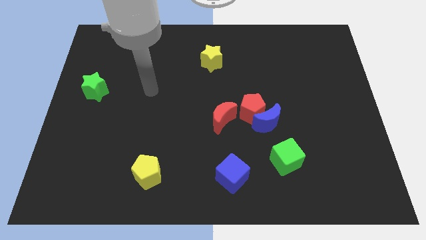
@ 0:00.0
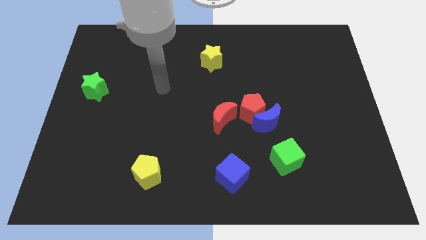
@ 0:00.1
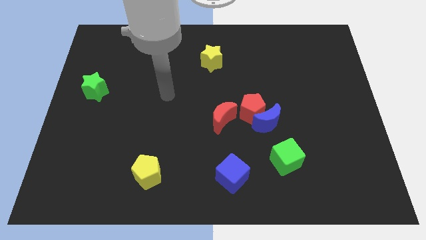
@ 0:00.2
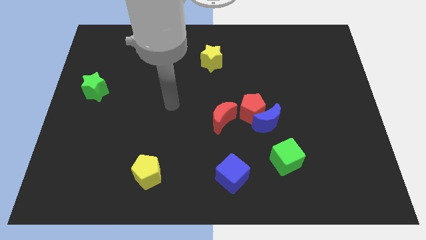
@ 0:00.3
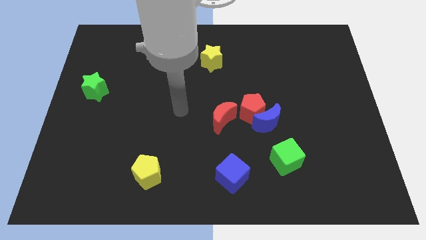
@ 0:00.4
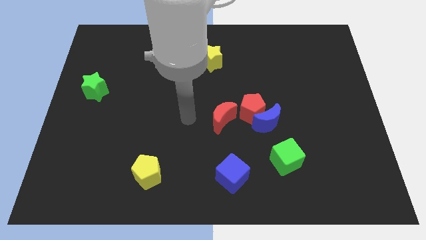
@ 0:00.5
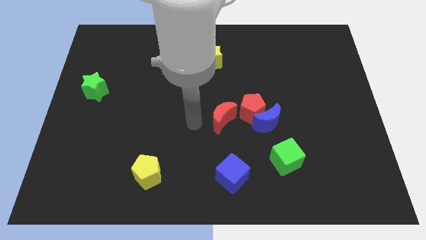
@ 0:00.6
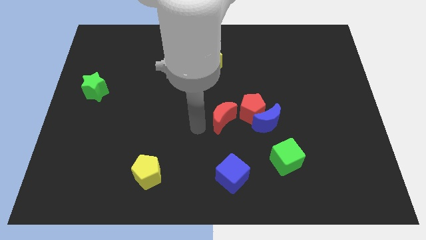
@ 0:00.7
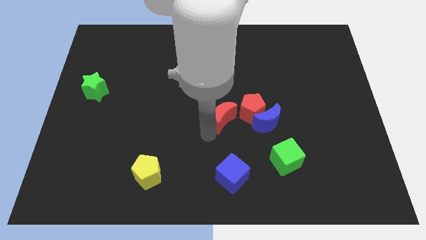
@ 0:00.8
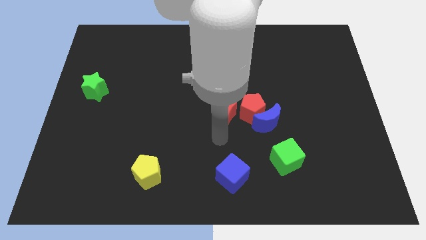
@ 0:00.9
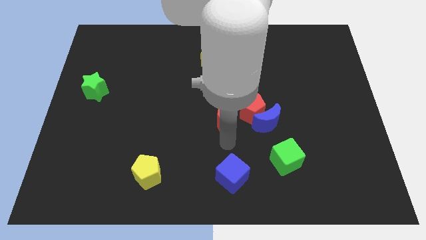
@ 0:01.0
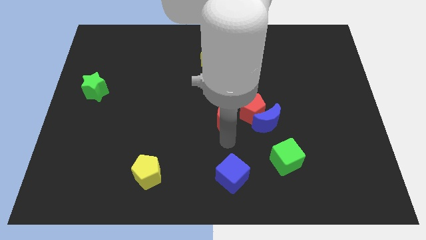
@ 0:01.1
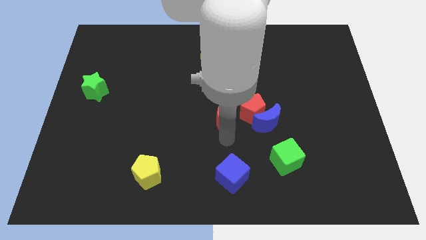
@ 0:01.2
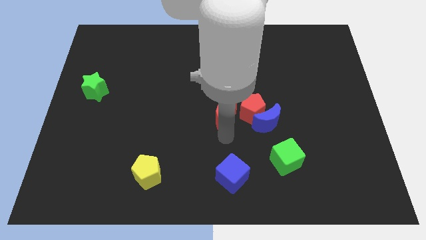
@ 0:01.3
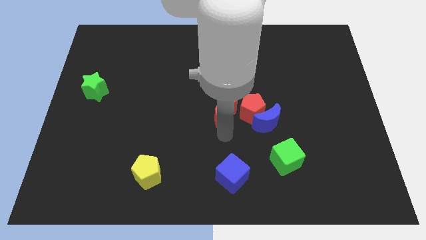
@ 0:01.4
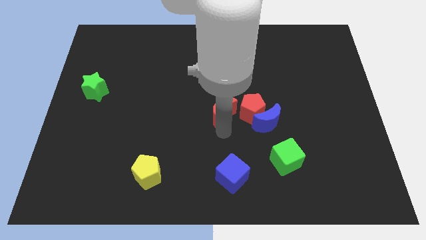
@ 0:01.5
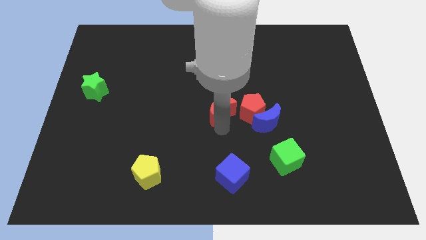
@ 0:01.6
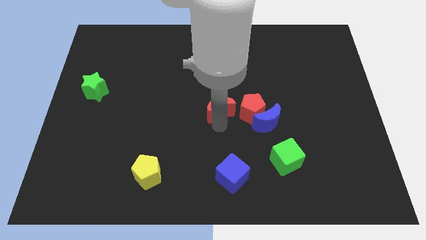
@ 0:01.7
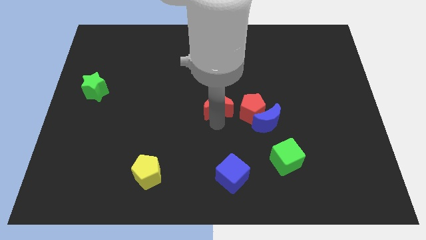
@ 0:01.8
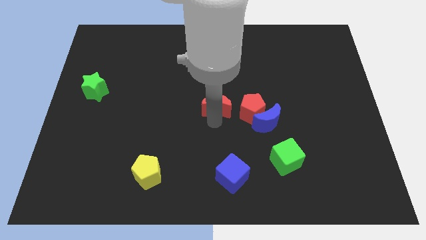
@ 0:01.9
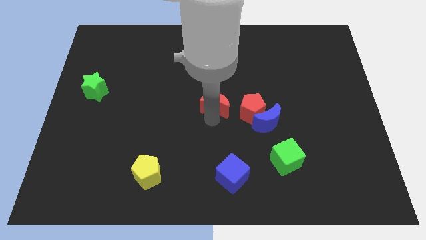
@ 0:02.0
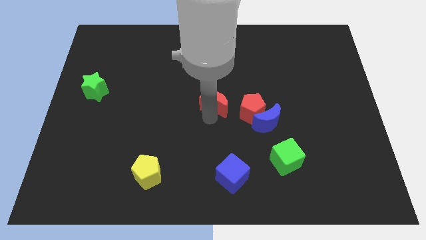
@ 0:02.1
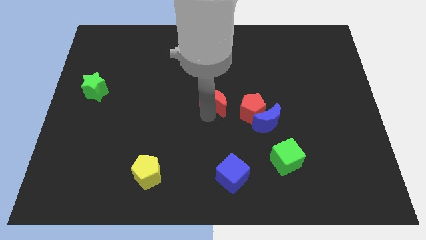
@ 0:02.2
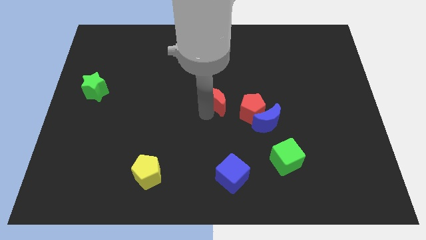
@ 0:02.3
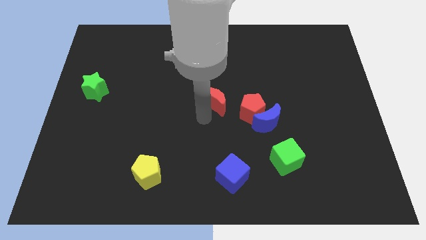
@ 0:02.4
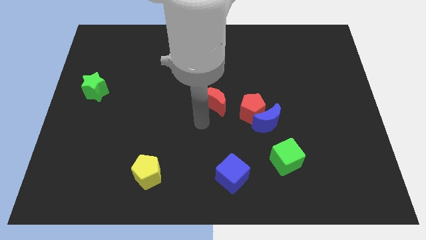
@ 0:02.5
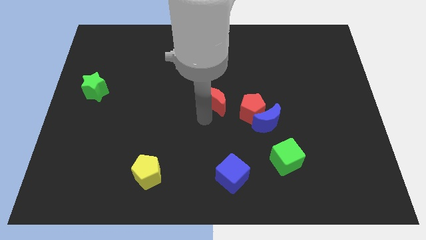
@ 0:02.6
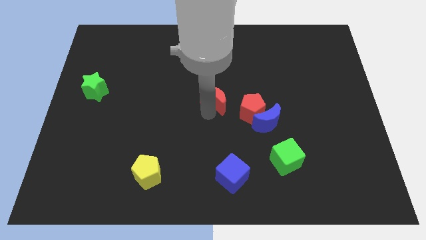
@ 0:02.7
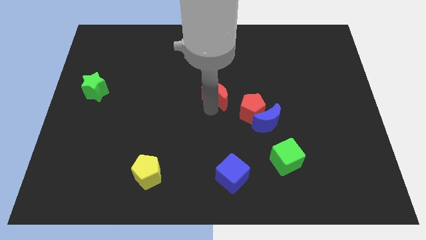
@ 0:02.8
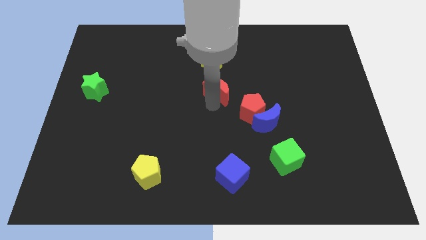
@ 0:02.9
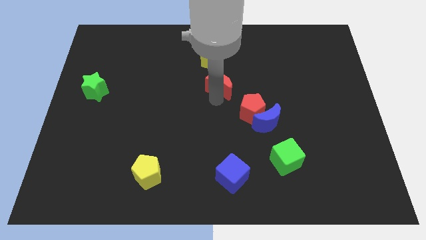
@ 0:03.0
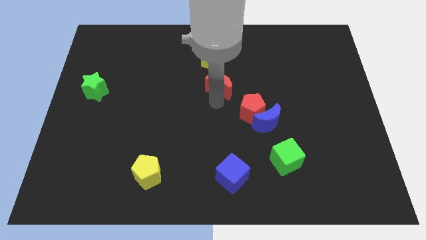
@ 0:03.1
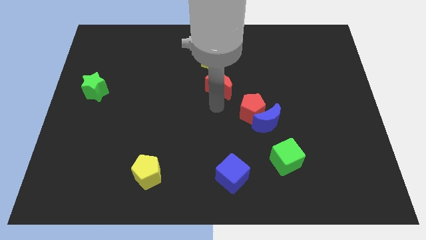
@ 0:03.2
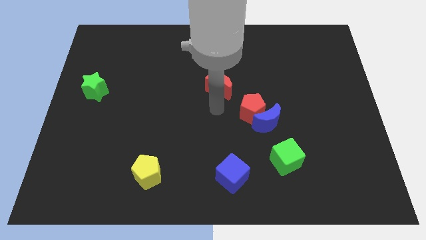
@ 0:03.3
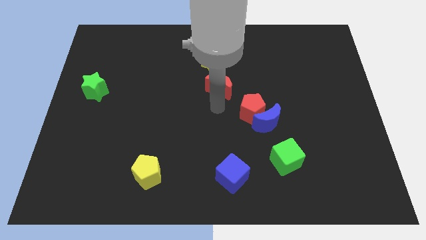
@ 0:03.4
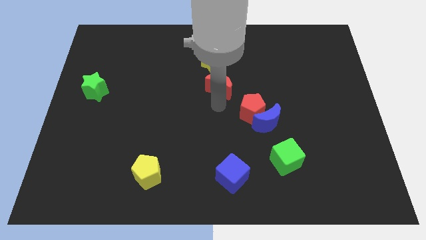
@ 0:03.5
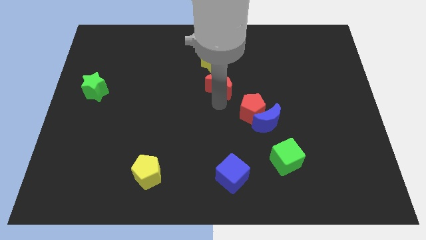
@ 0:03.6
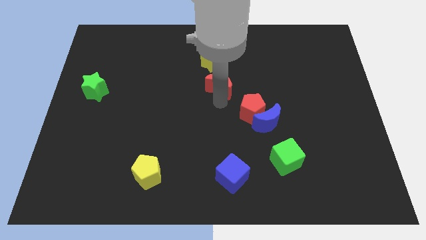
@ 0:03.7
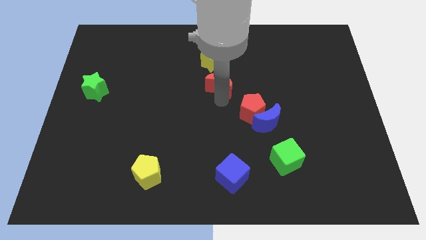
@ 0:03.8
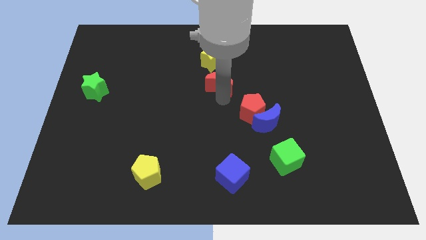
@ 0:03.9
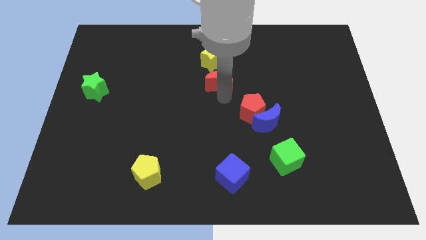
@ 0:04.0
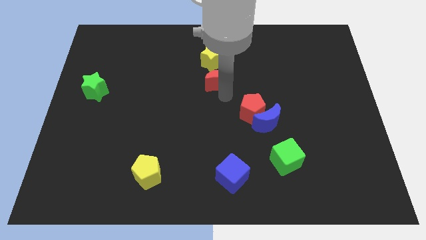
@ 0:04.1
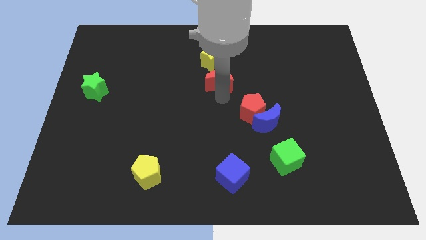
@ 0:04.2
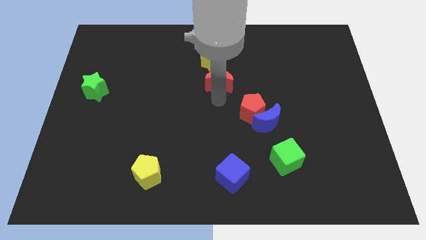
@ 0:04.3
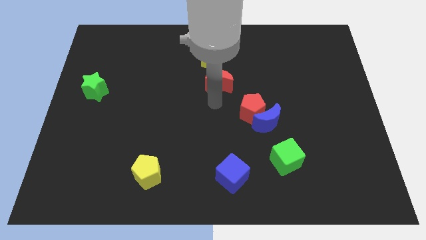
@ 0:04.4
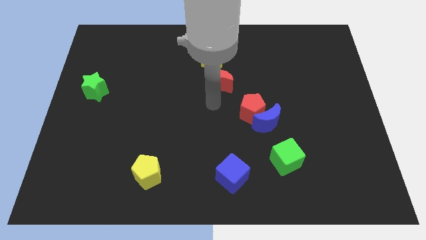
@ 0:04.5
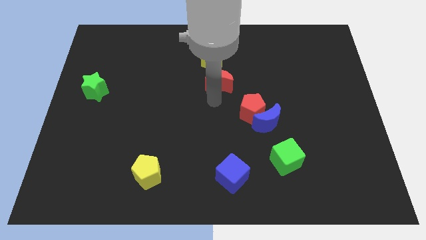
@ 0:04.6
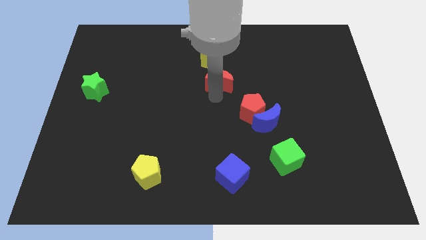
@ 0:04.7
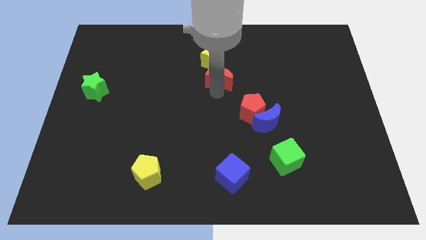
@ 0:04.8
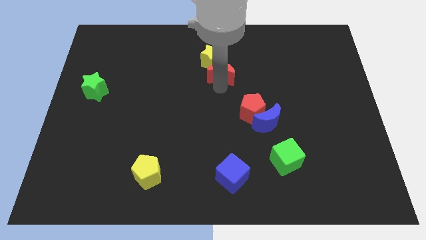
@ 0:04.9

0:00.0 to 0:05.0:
slide the red moon close to the yellow star

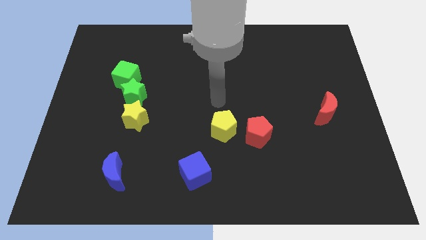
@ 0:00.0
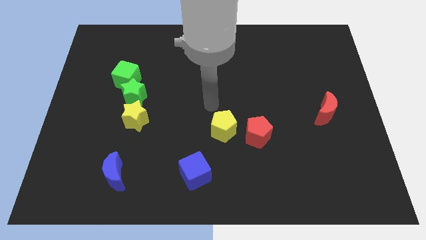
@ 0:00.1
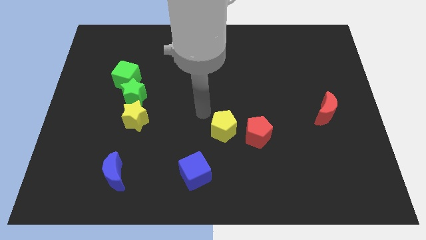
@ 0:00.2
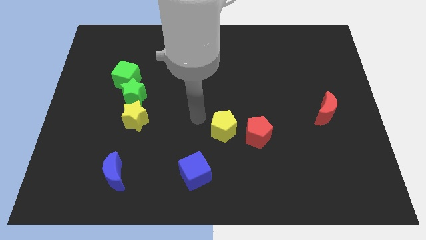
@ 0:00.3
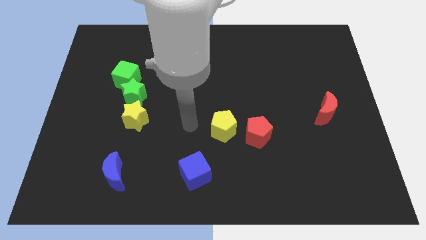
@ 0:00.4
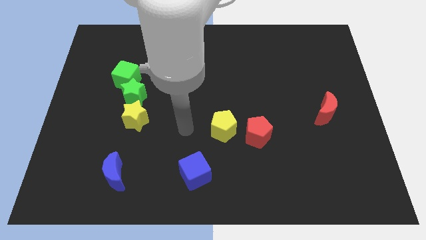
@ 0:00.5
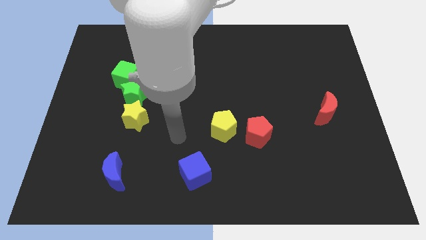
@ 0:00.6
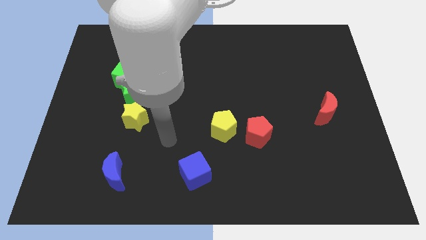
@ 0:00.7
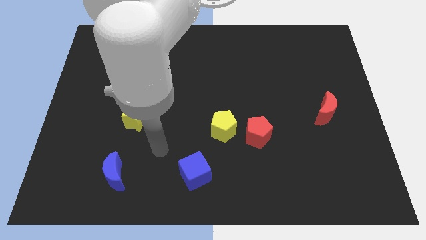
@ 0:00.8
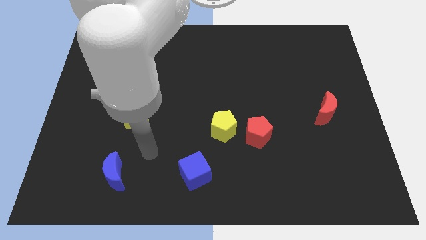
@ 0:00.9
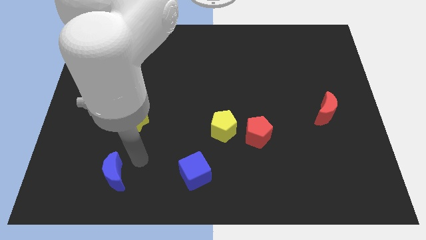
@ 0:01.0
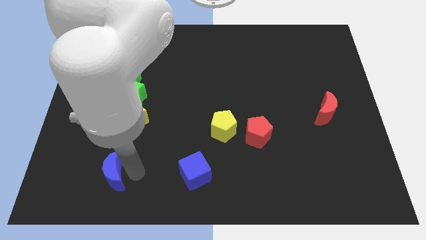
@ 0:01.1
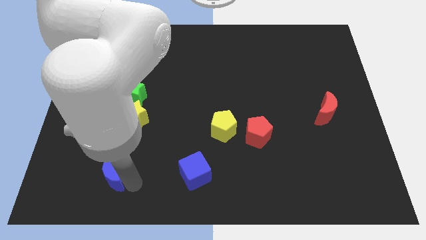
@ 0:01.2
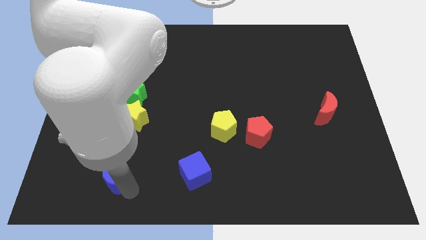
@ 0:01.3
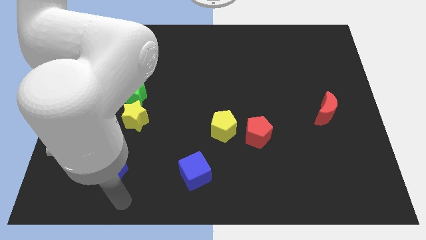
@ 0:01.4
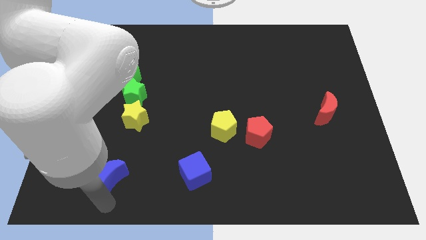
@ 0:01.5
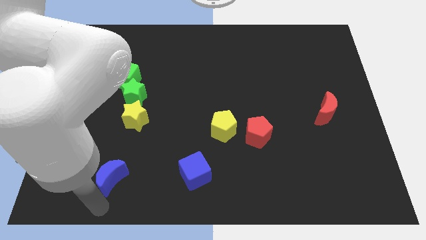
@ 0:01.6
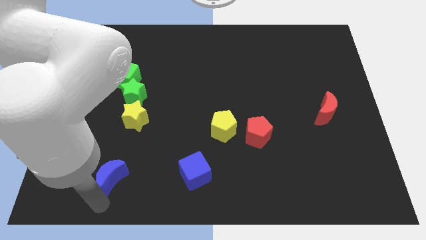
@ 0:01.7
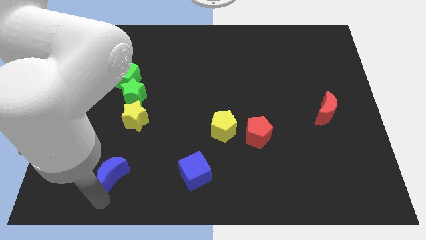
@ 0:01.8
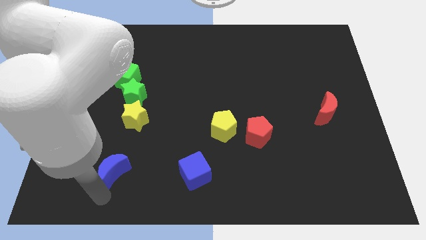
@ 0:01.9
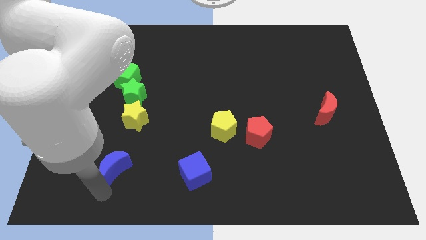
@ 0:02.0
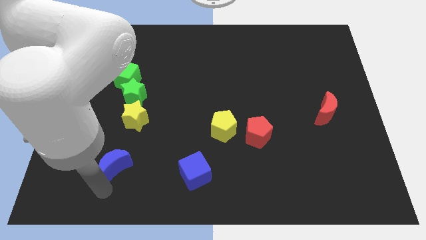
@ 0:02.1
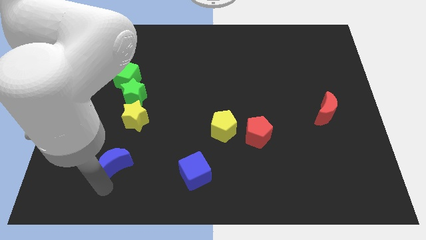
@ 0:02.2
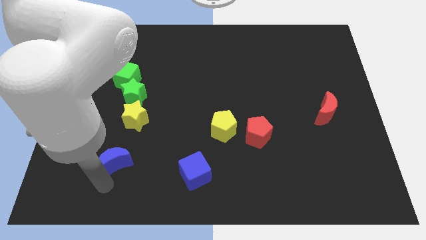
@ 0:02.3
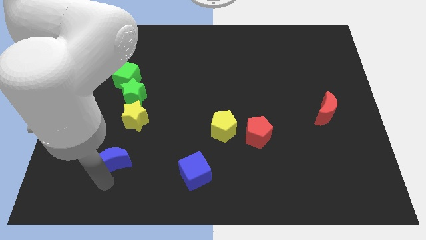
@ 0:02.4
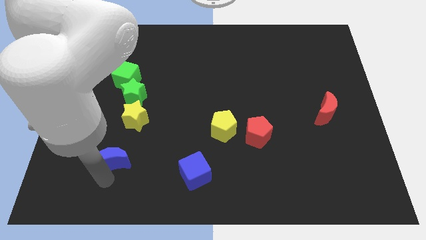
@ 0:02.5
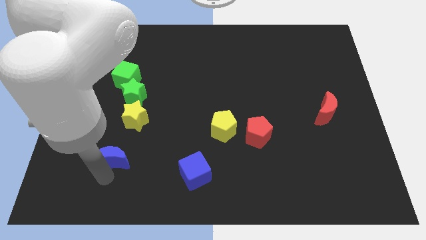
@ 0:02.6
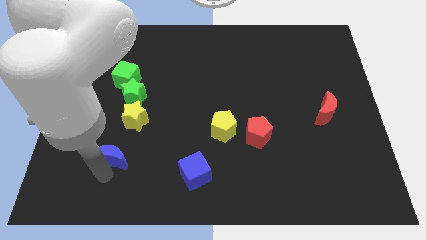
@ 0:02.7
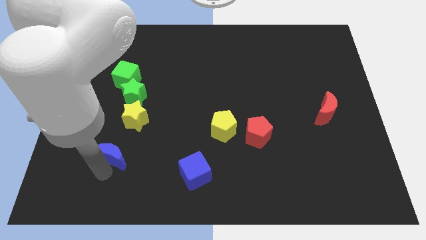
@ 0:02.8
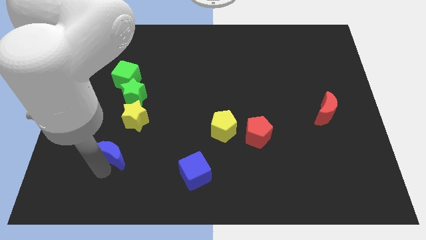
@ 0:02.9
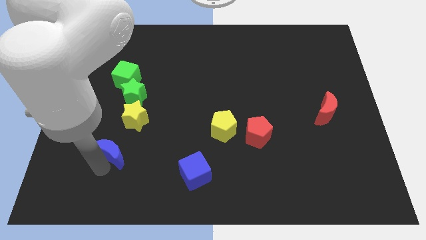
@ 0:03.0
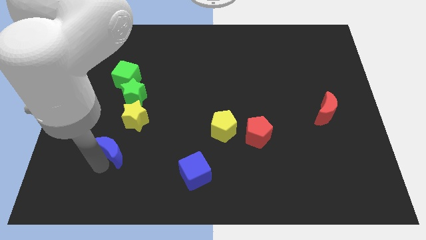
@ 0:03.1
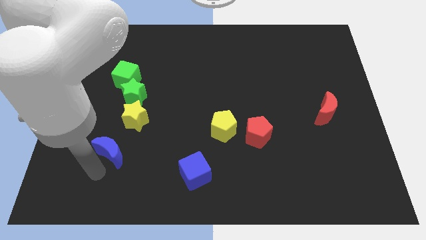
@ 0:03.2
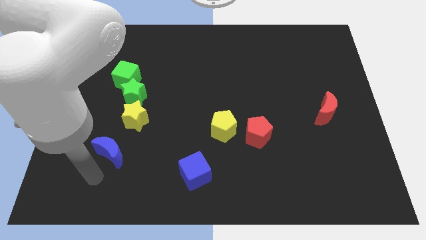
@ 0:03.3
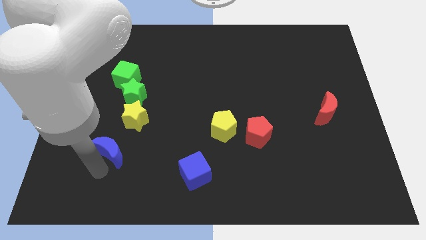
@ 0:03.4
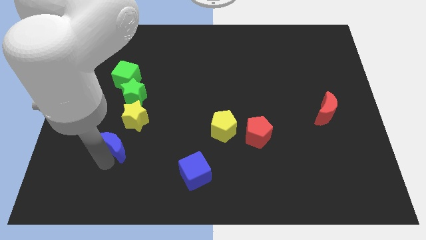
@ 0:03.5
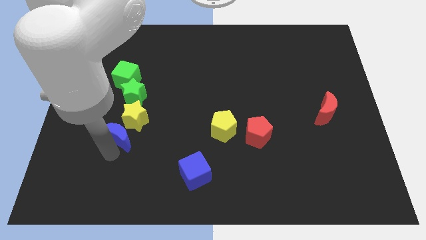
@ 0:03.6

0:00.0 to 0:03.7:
push the blue moon to the yellow star
